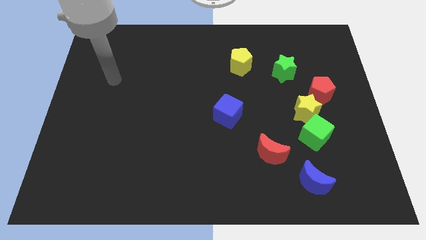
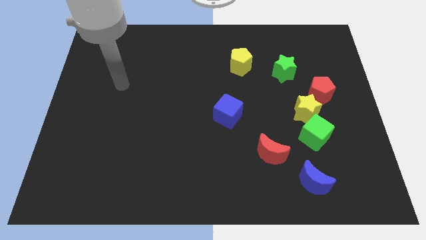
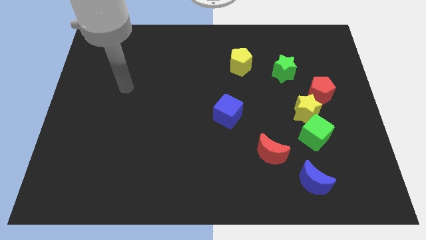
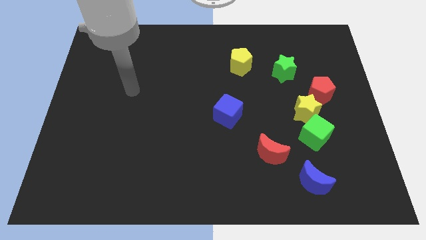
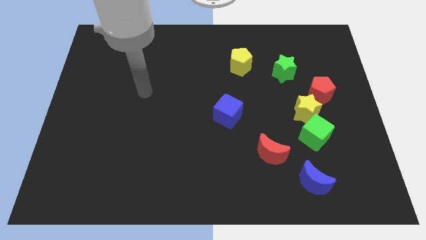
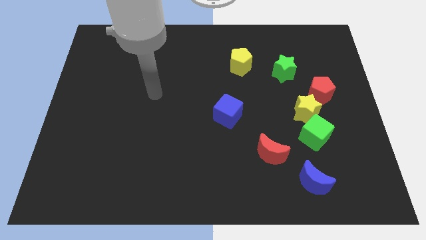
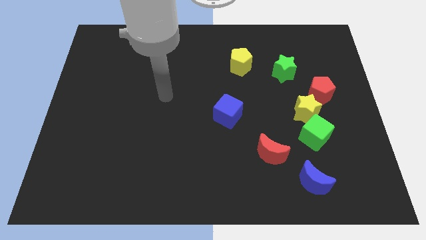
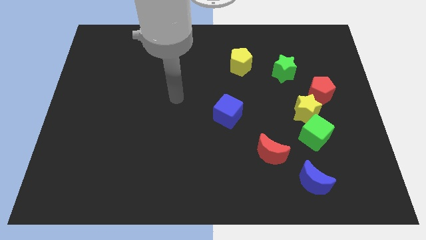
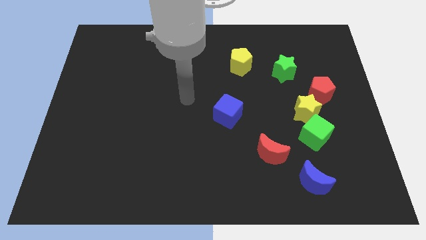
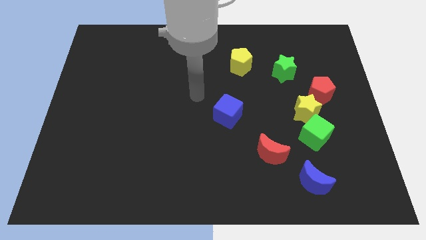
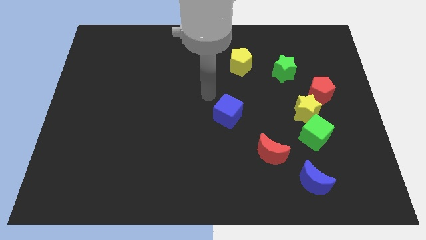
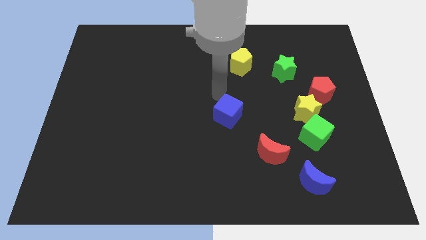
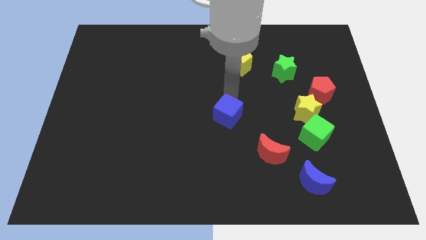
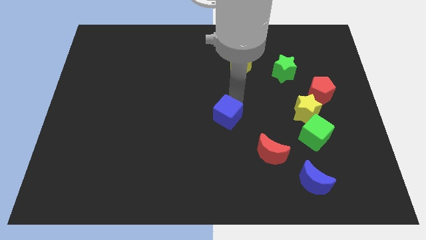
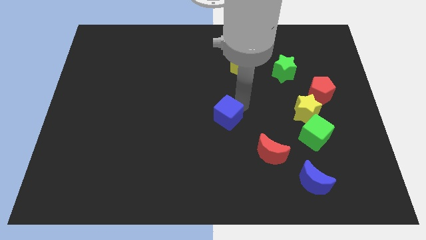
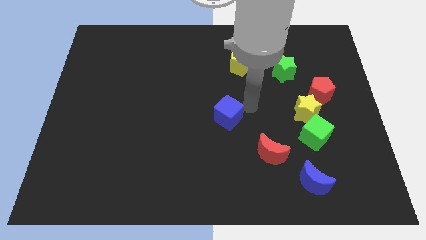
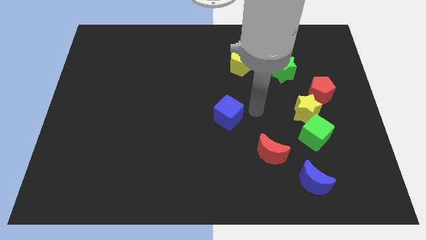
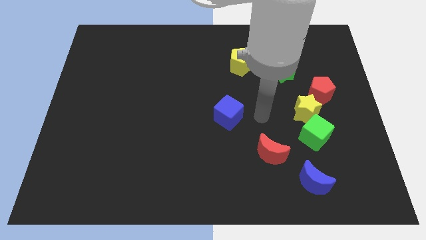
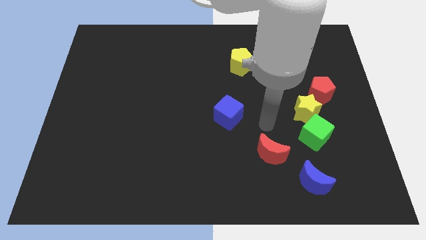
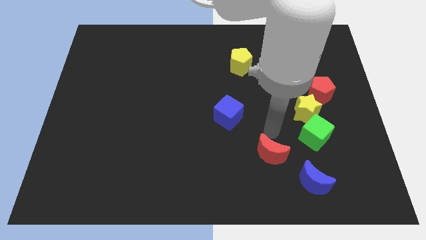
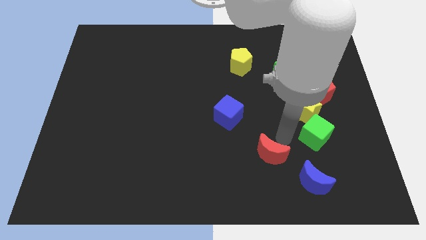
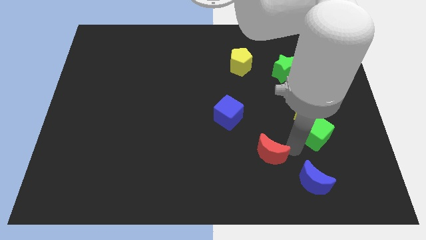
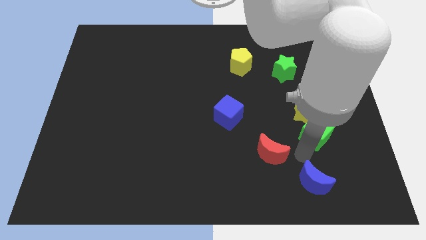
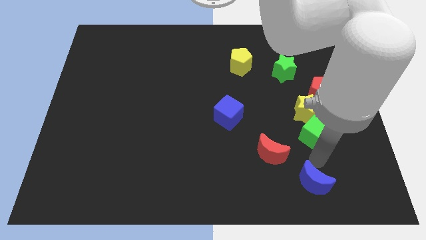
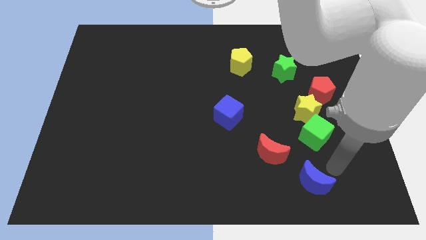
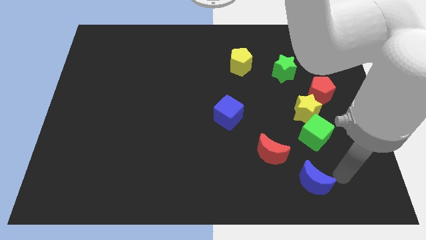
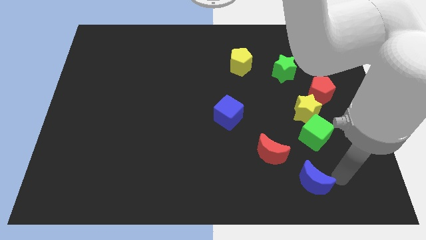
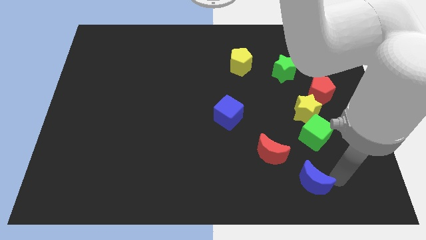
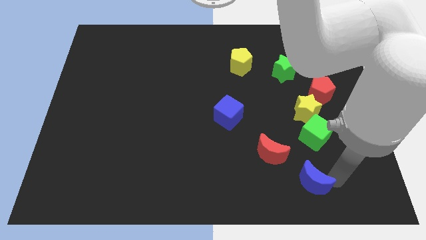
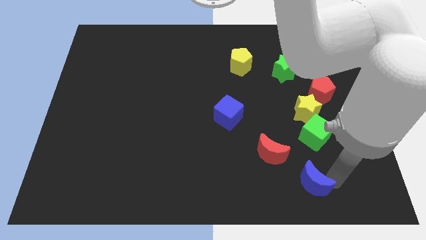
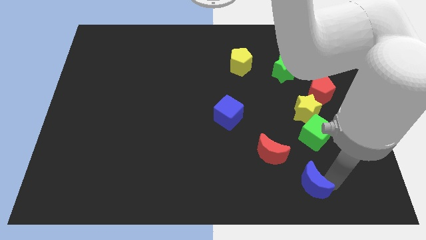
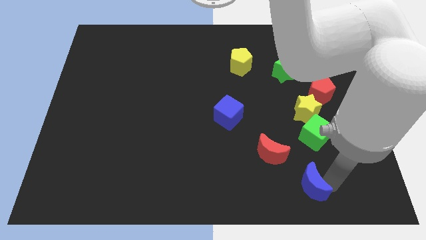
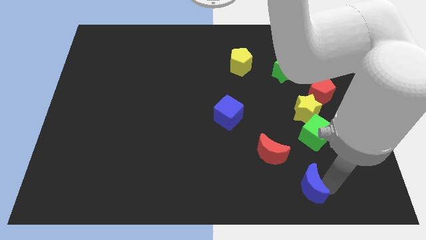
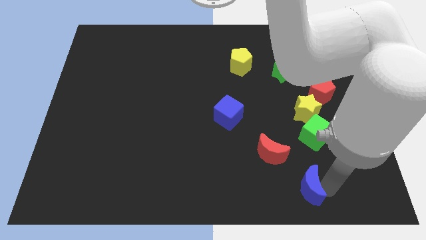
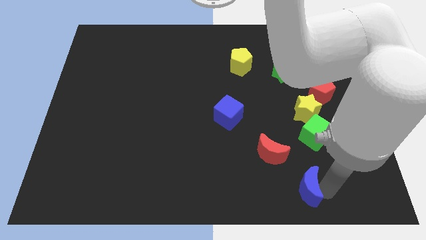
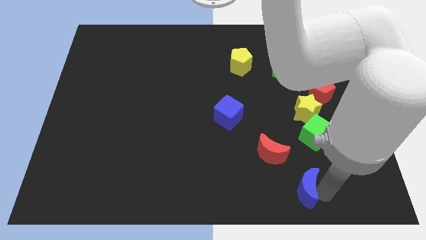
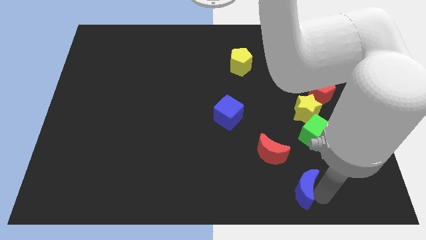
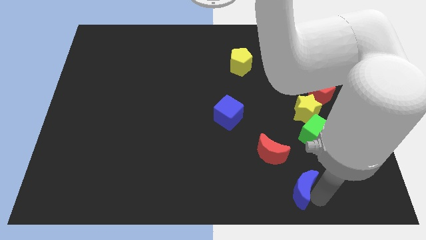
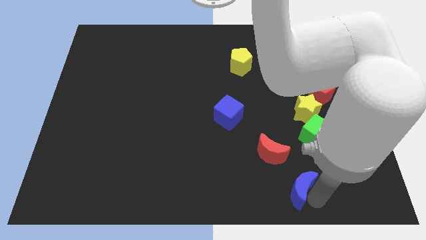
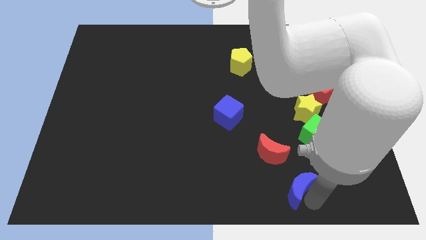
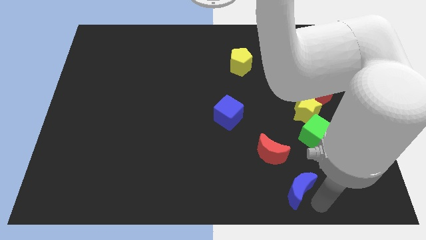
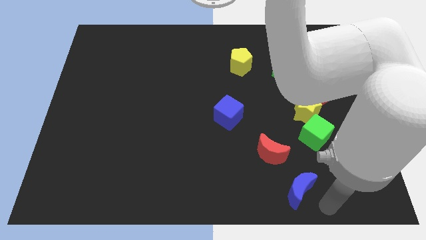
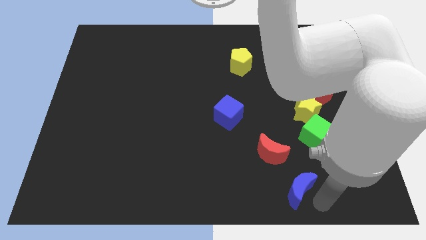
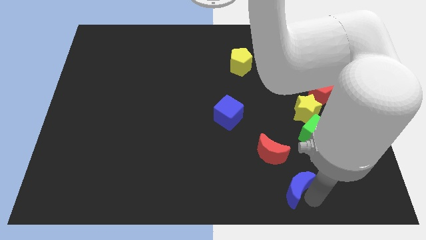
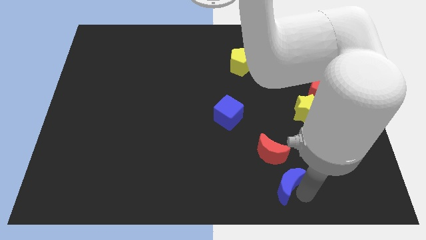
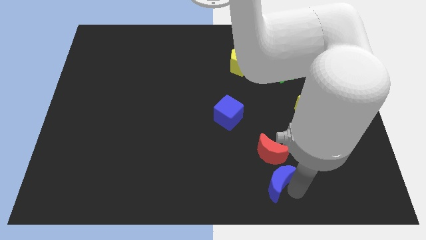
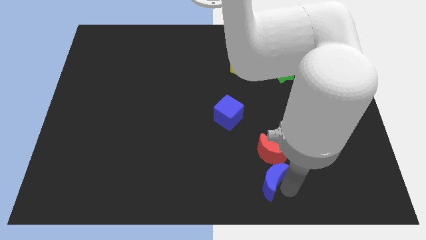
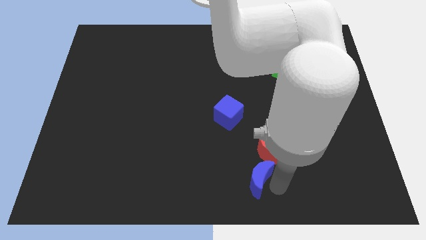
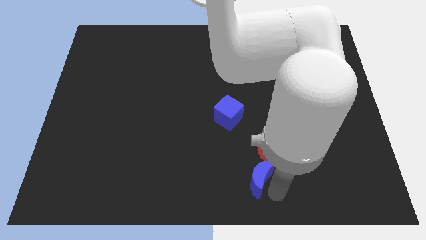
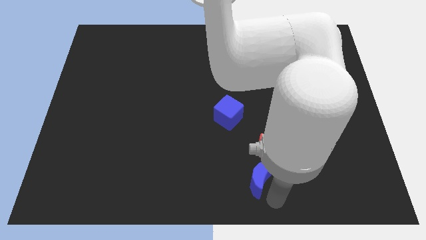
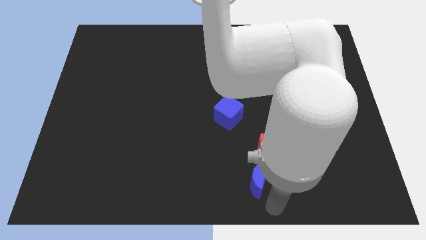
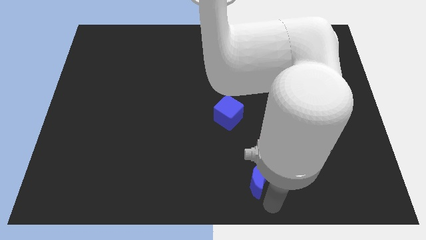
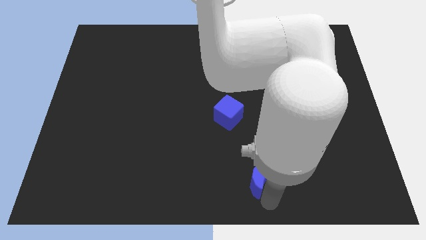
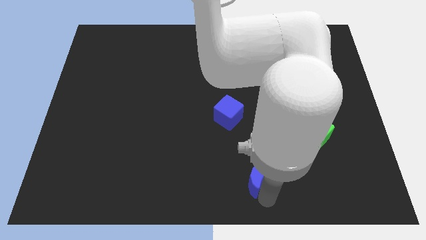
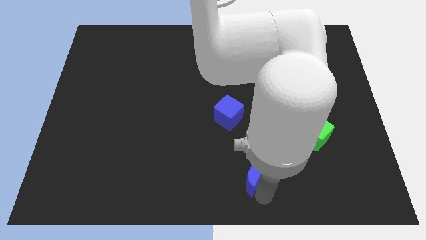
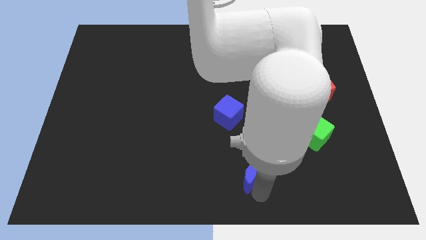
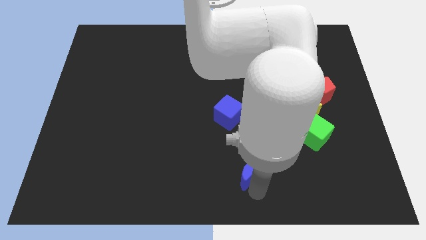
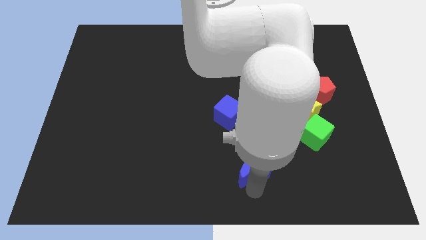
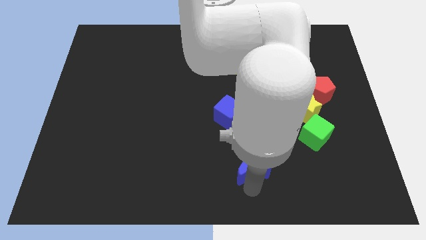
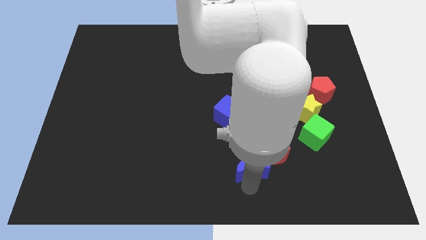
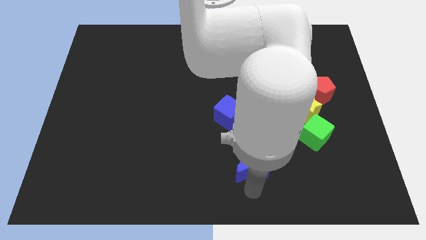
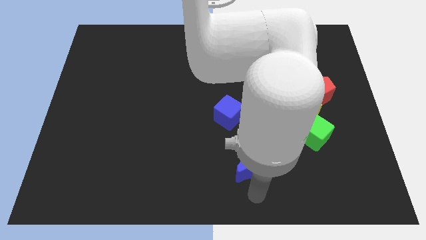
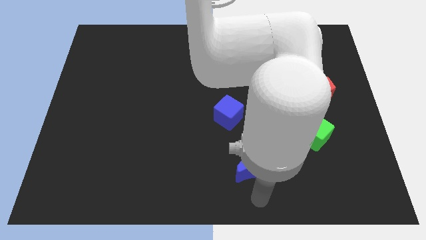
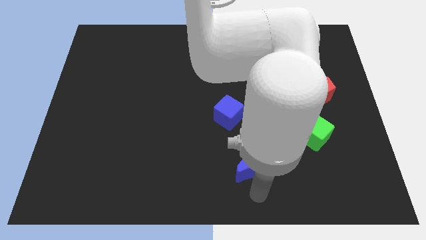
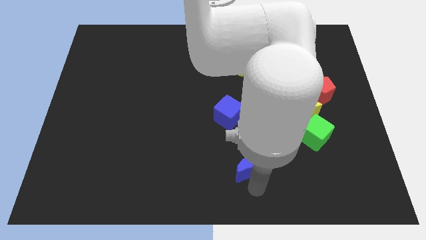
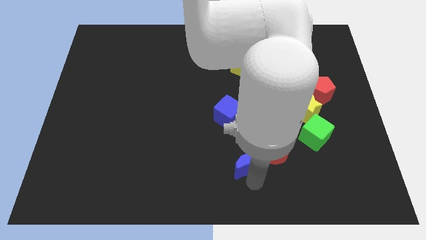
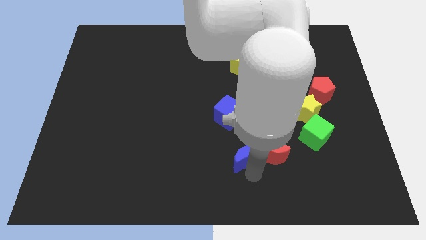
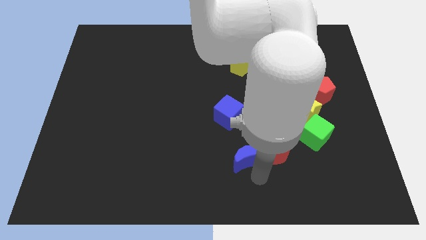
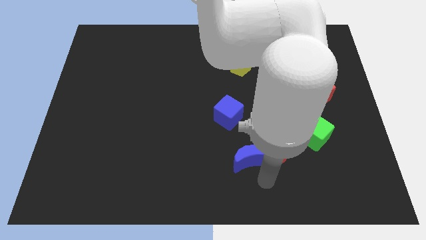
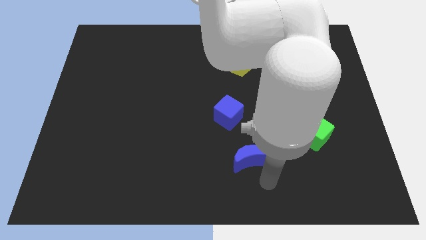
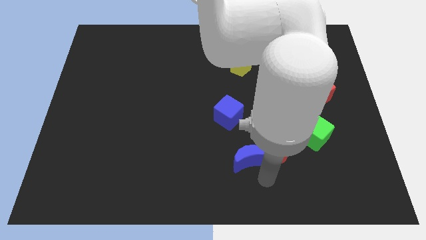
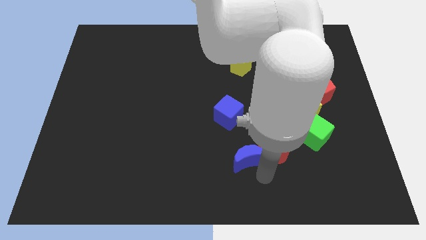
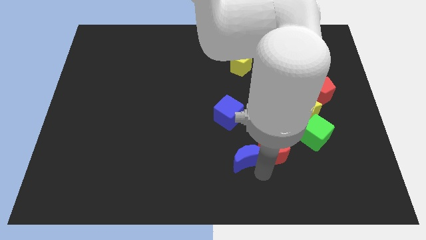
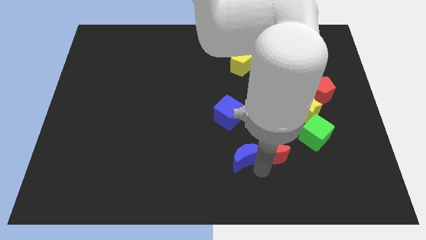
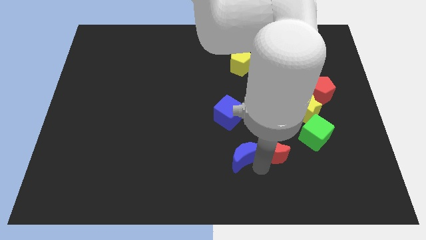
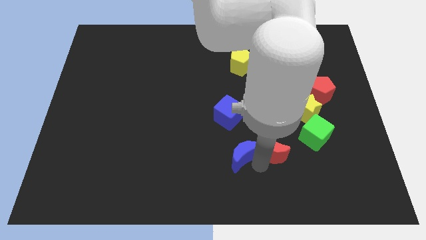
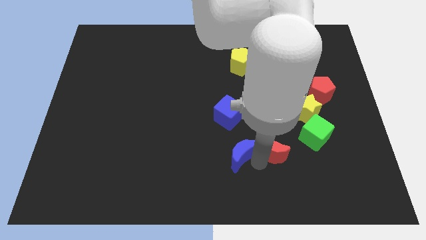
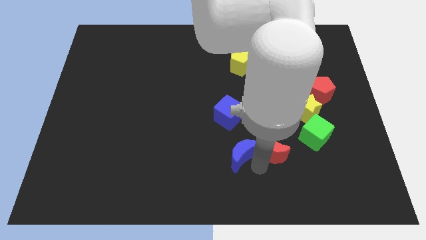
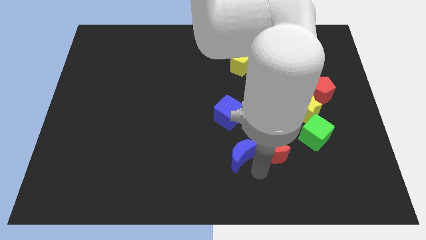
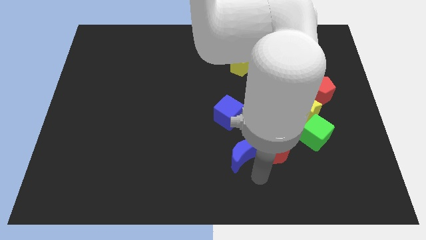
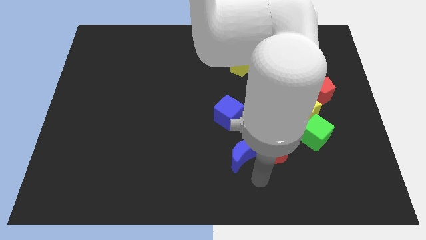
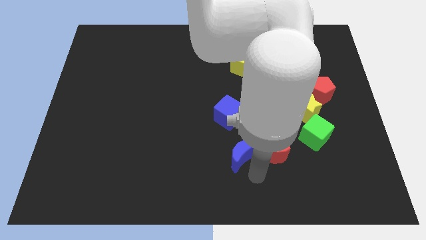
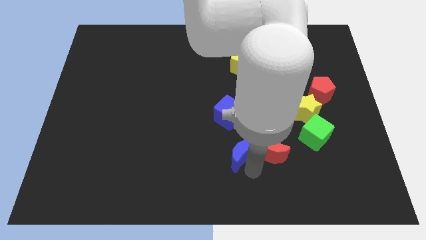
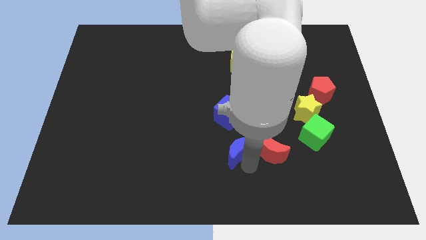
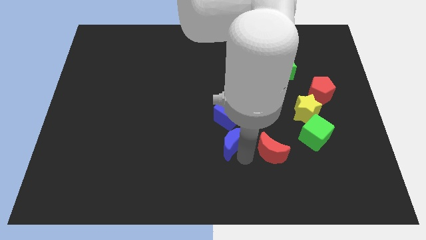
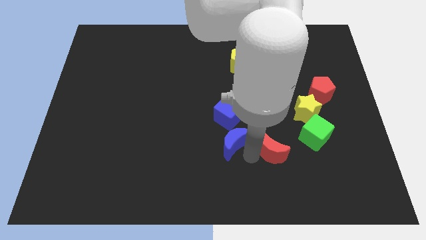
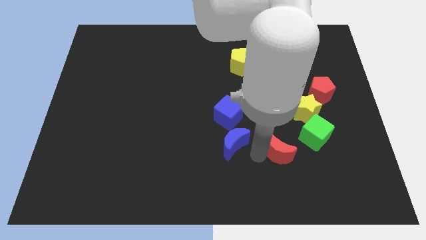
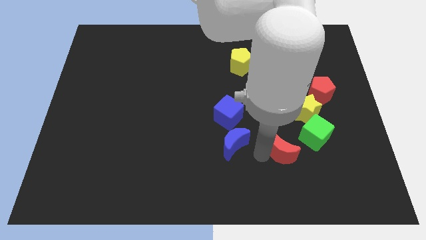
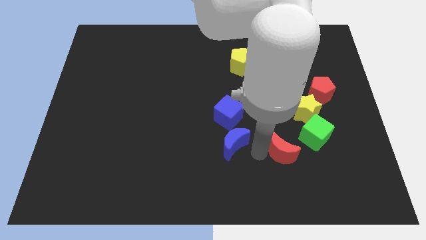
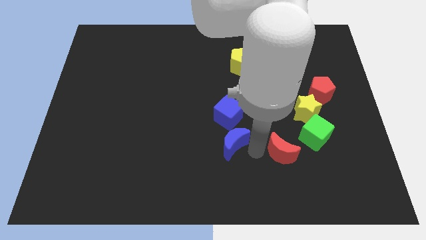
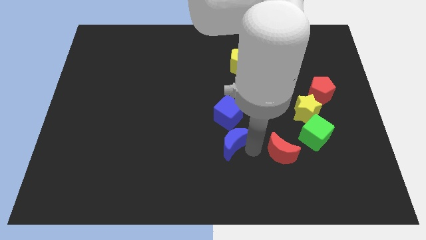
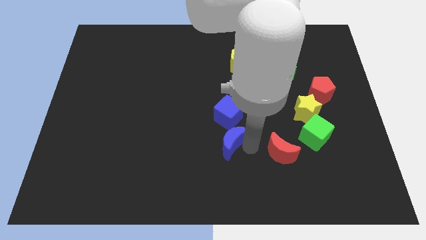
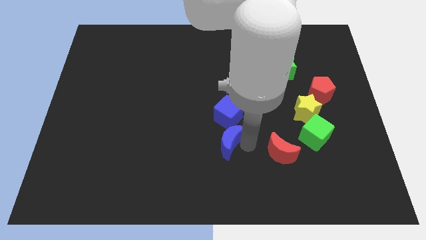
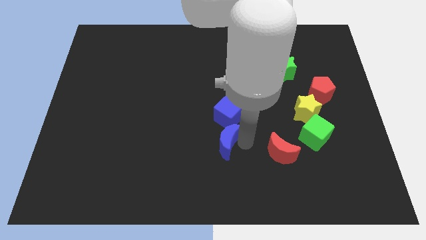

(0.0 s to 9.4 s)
move the blue moon to the bottom left side of the blue cube
